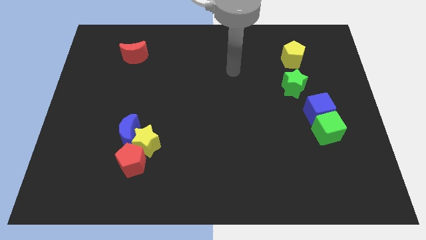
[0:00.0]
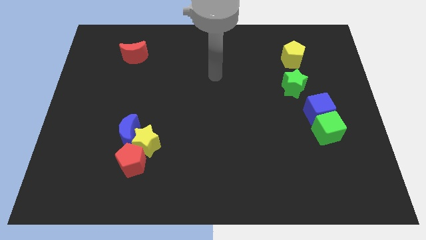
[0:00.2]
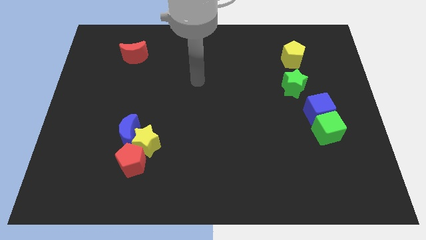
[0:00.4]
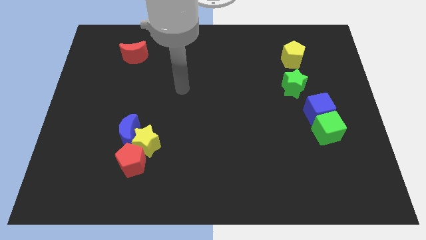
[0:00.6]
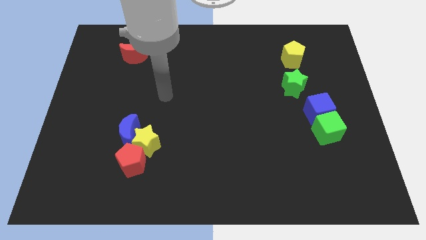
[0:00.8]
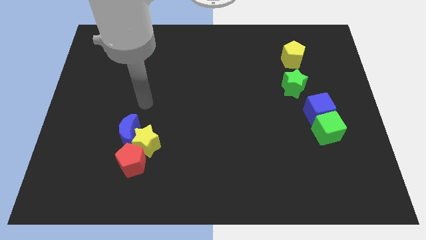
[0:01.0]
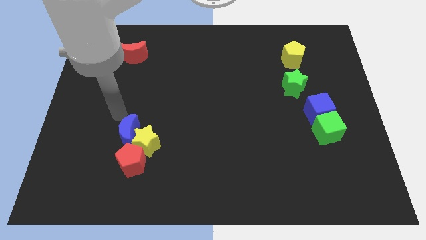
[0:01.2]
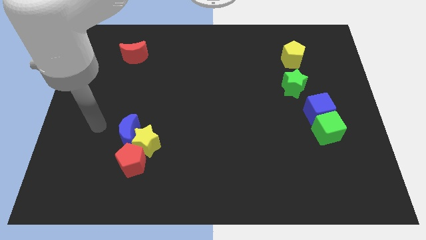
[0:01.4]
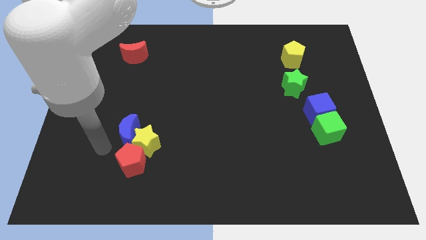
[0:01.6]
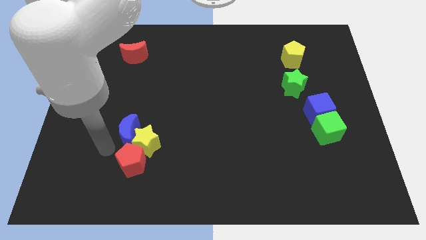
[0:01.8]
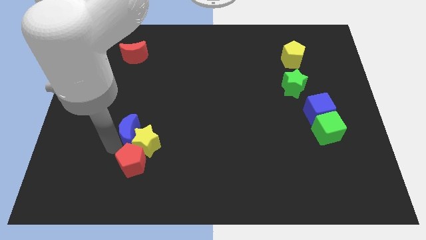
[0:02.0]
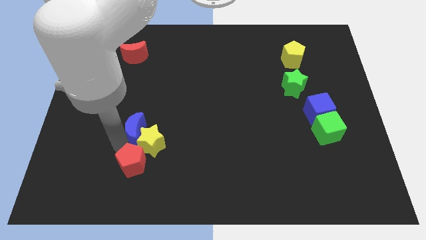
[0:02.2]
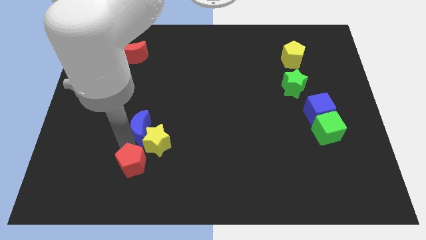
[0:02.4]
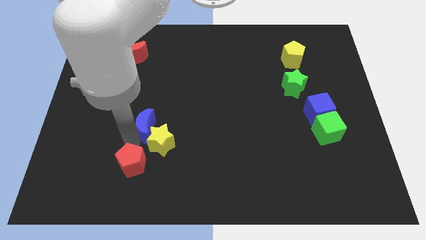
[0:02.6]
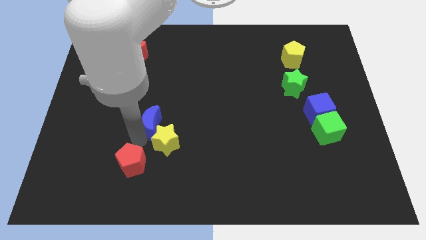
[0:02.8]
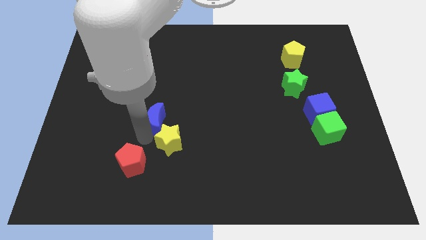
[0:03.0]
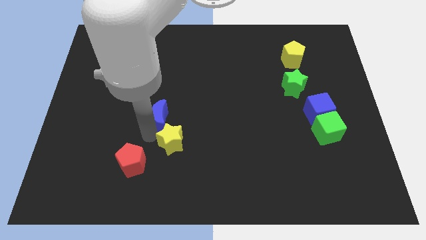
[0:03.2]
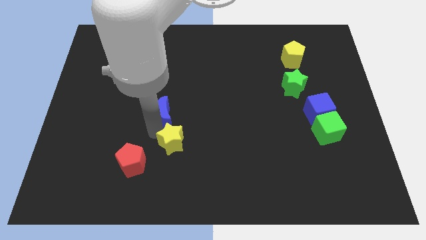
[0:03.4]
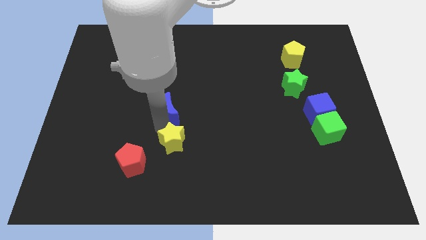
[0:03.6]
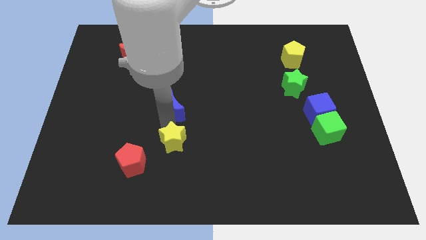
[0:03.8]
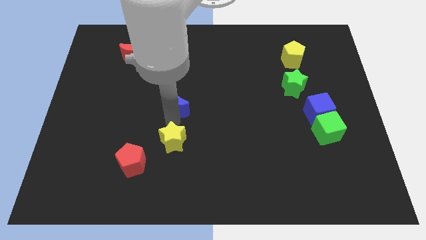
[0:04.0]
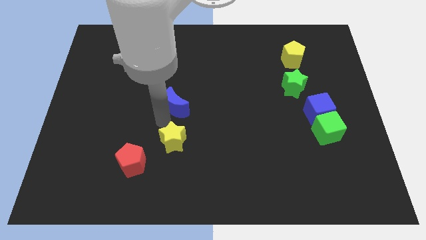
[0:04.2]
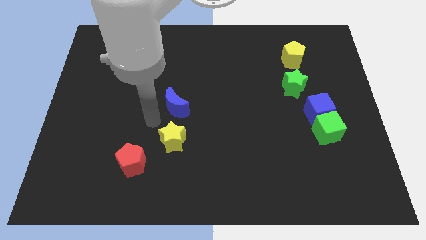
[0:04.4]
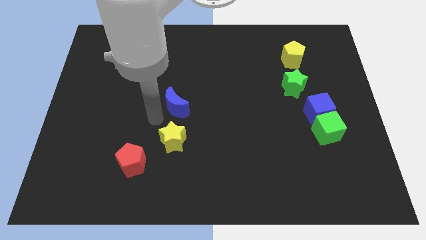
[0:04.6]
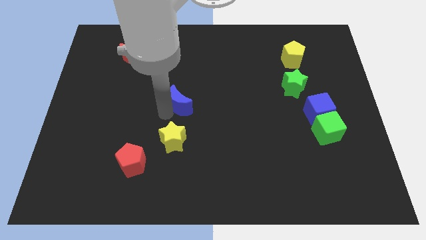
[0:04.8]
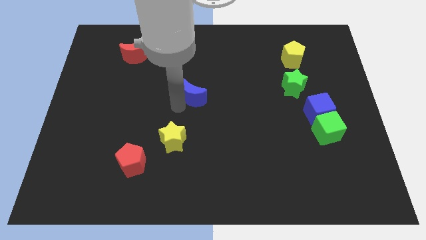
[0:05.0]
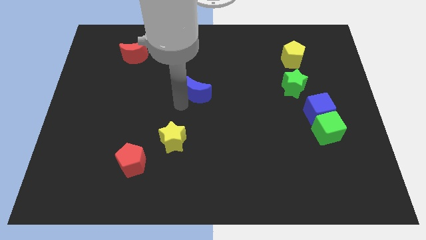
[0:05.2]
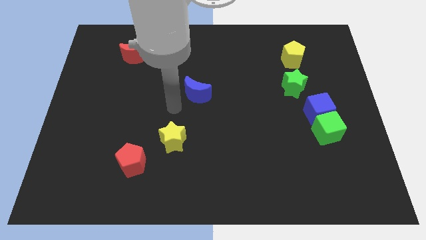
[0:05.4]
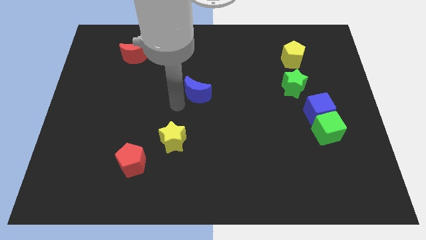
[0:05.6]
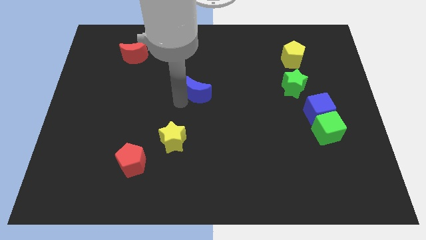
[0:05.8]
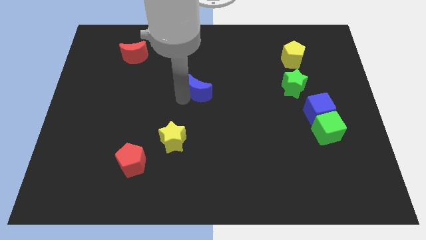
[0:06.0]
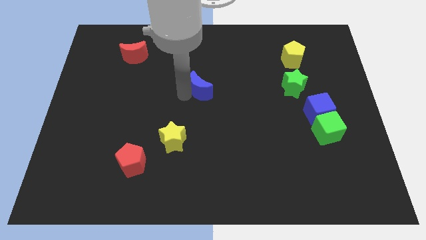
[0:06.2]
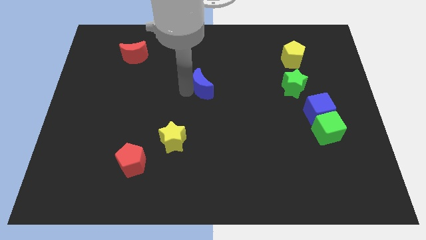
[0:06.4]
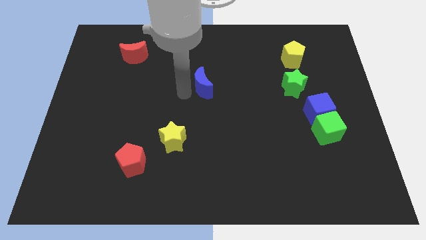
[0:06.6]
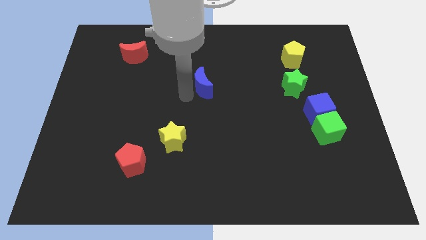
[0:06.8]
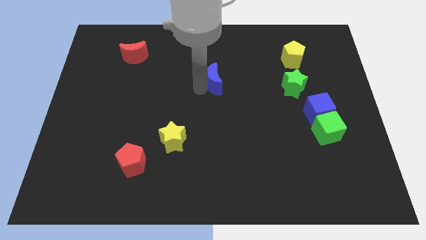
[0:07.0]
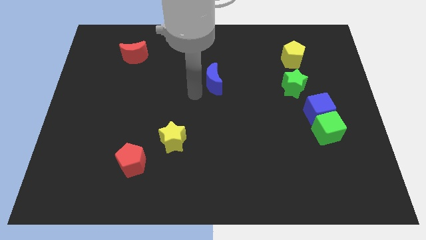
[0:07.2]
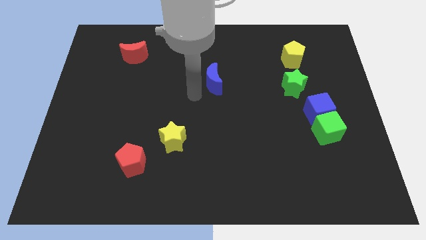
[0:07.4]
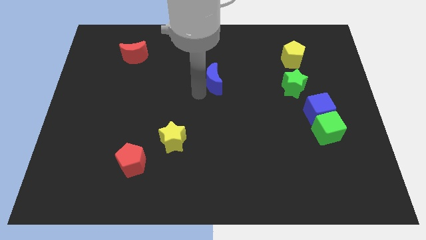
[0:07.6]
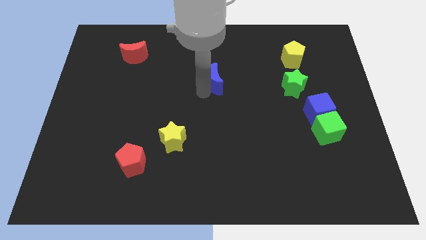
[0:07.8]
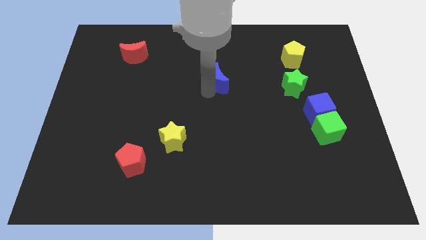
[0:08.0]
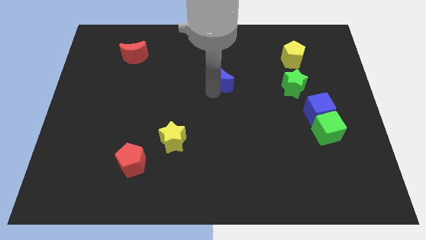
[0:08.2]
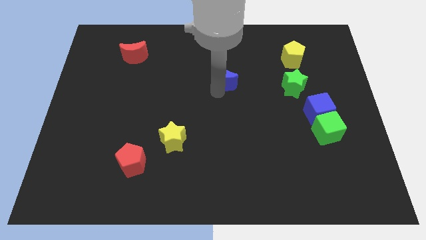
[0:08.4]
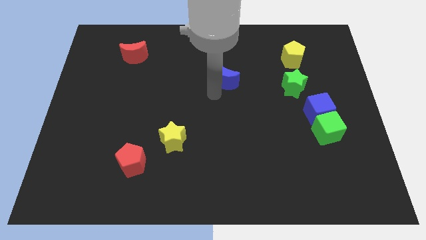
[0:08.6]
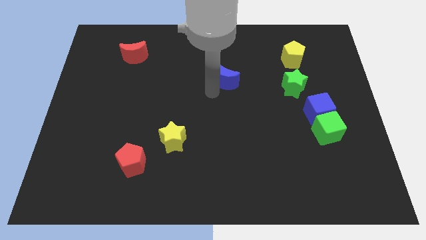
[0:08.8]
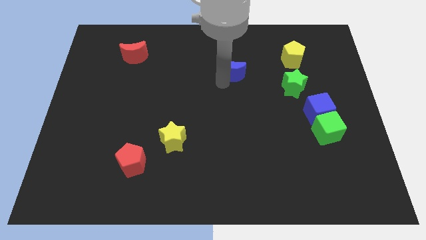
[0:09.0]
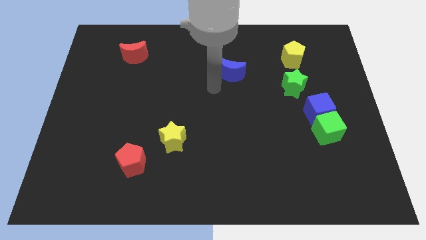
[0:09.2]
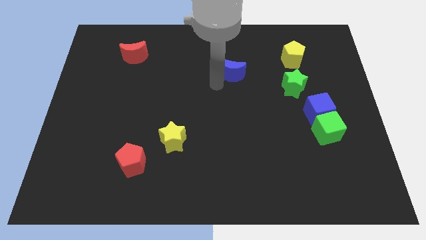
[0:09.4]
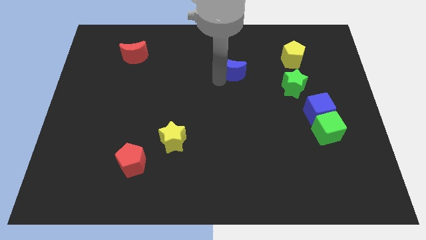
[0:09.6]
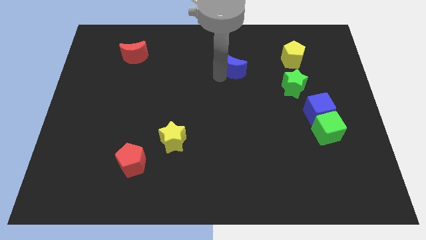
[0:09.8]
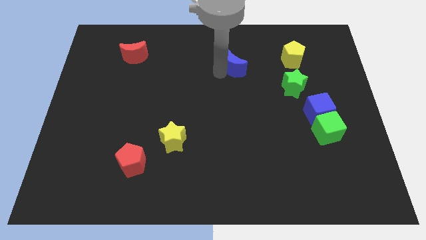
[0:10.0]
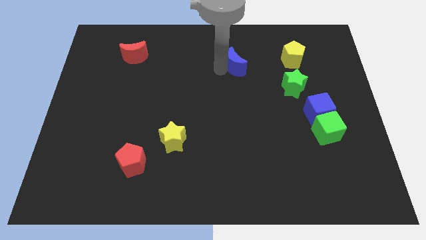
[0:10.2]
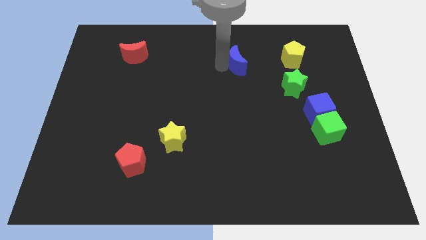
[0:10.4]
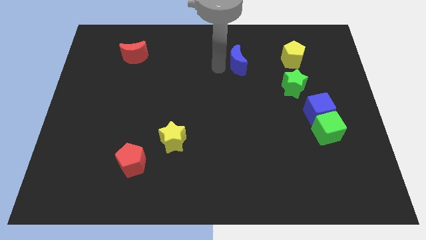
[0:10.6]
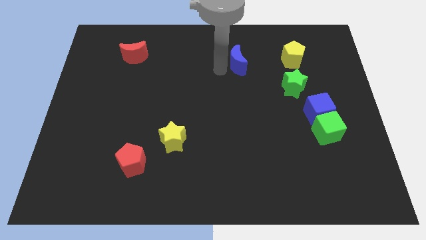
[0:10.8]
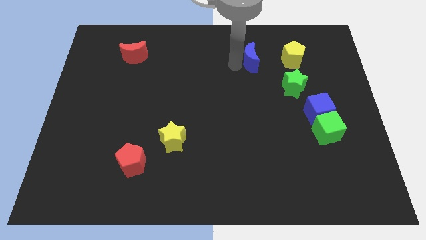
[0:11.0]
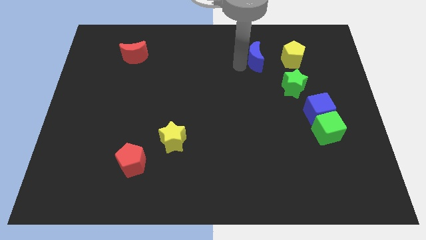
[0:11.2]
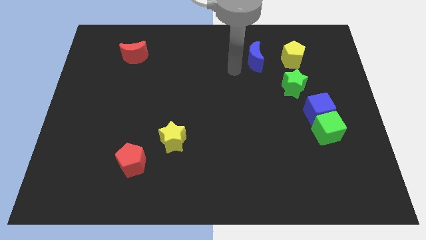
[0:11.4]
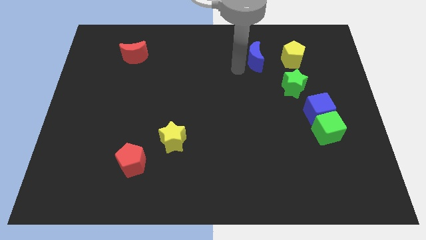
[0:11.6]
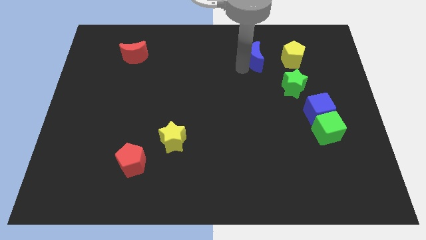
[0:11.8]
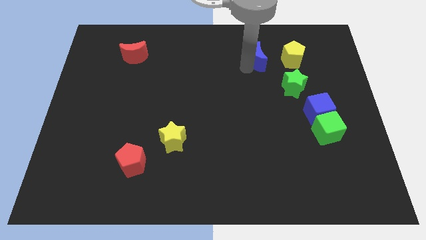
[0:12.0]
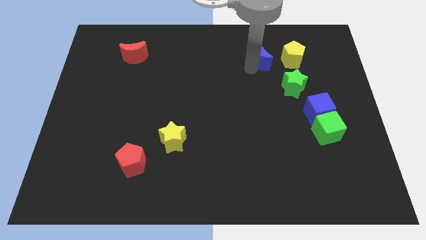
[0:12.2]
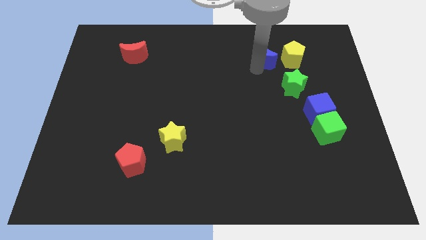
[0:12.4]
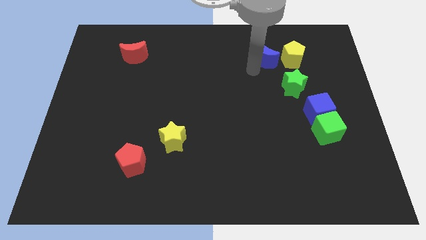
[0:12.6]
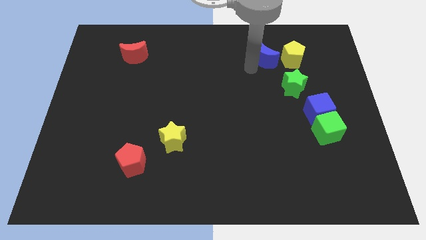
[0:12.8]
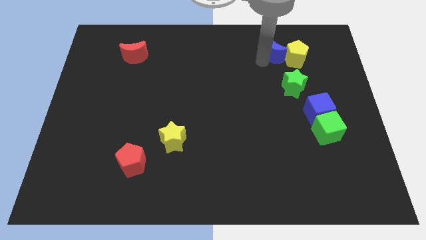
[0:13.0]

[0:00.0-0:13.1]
put the blue moon to the top of the green star
